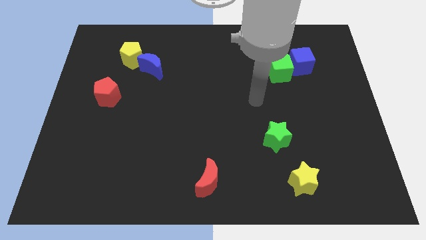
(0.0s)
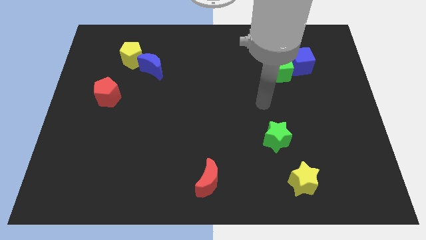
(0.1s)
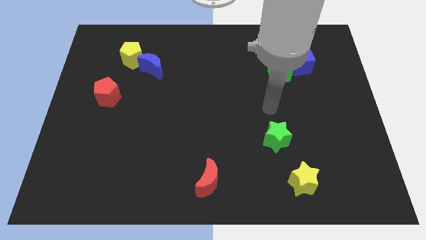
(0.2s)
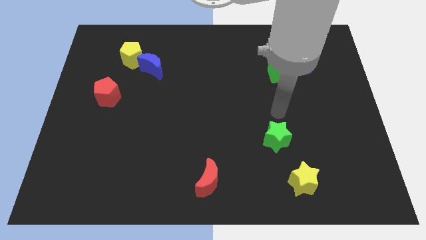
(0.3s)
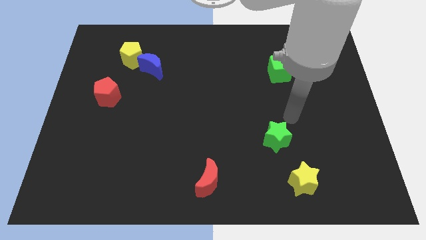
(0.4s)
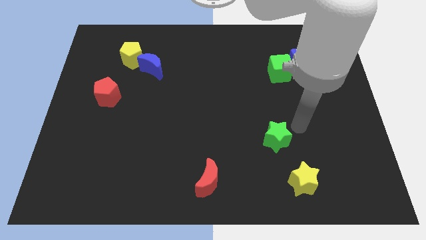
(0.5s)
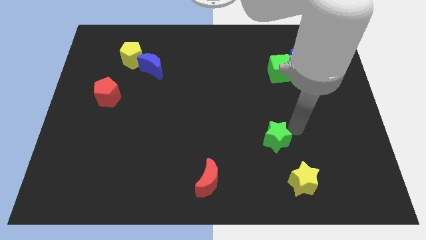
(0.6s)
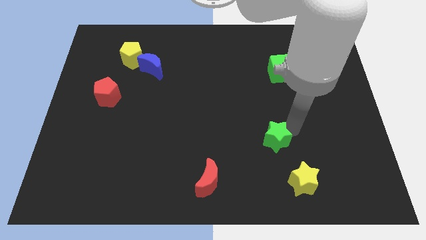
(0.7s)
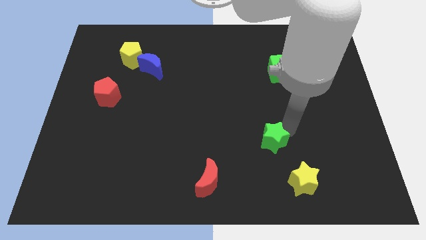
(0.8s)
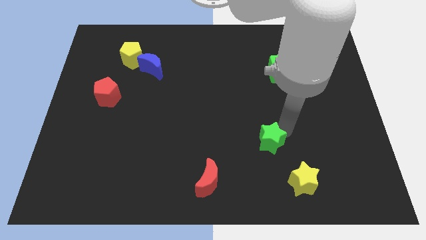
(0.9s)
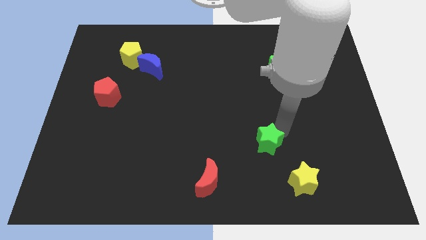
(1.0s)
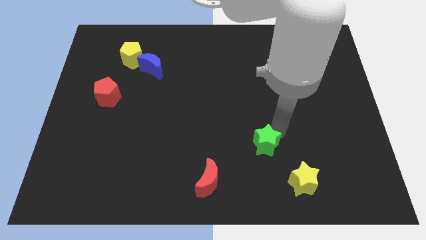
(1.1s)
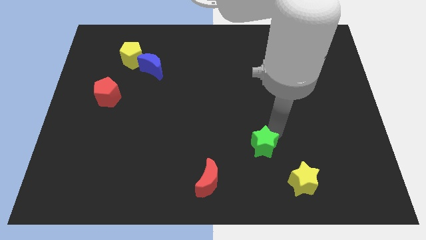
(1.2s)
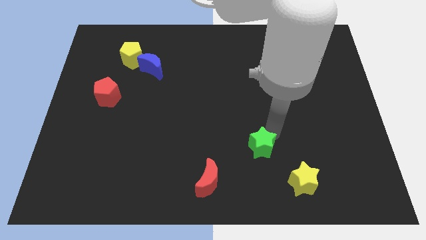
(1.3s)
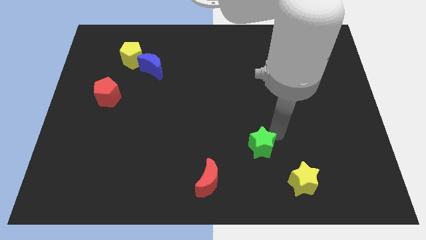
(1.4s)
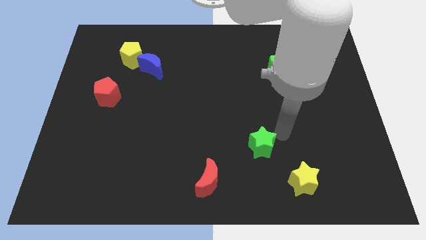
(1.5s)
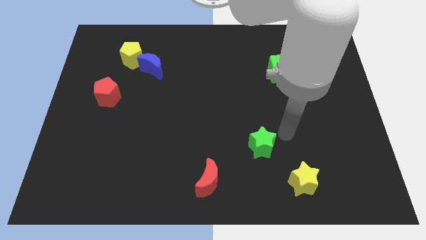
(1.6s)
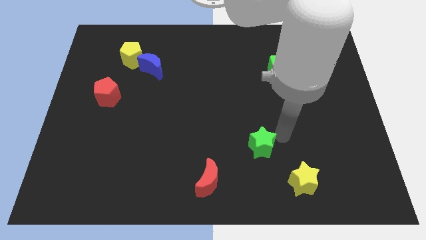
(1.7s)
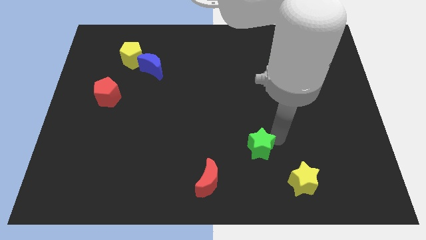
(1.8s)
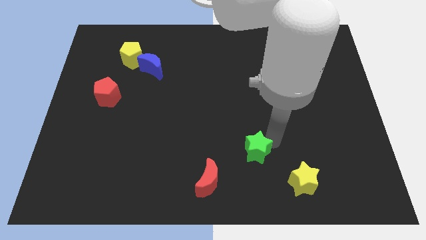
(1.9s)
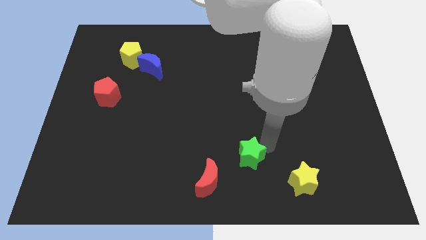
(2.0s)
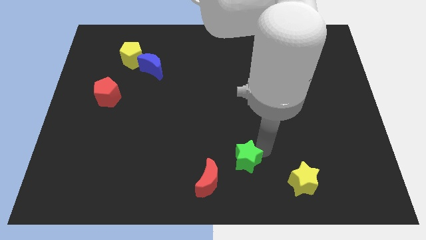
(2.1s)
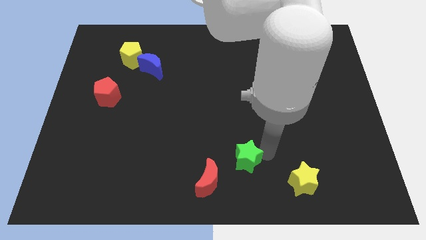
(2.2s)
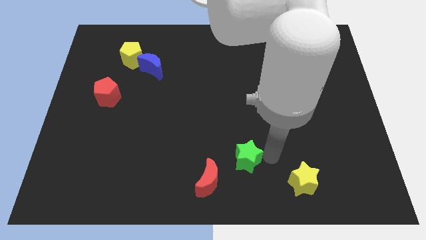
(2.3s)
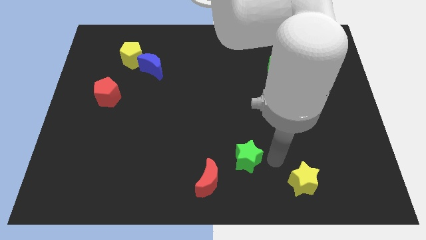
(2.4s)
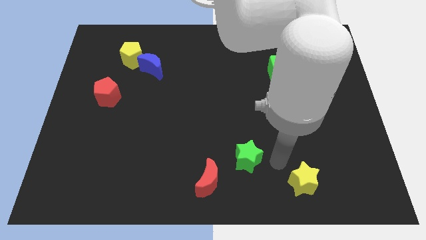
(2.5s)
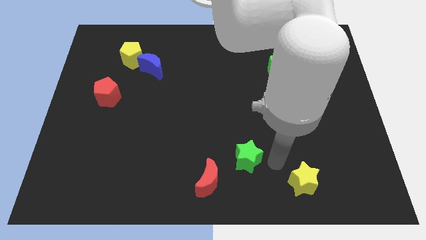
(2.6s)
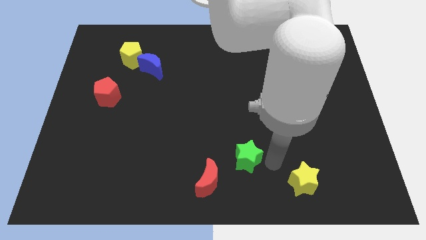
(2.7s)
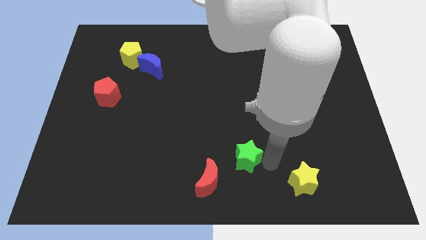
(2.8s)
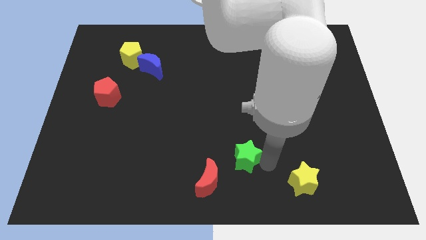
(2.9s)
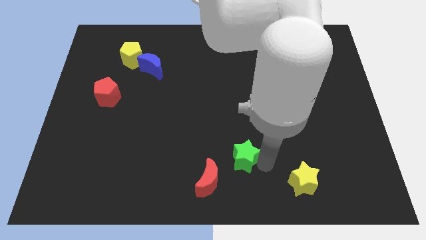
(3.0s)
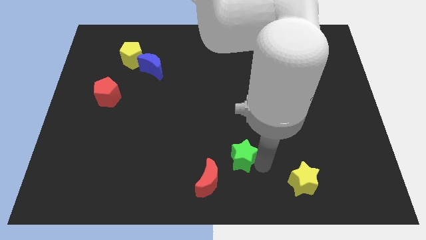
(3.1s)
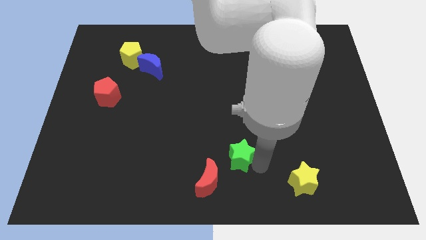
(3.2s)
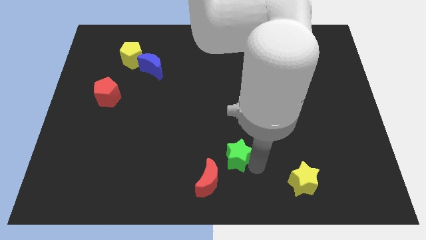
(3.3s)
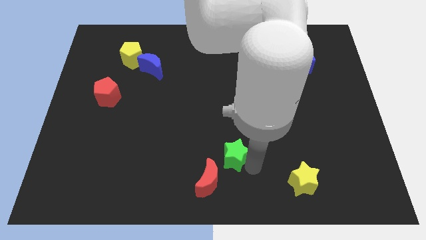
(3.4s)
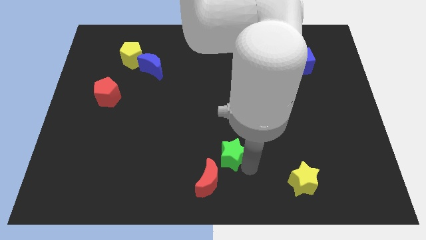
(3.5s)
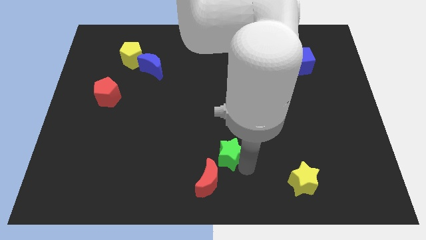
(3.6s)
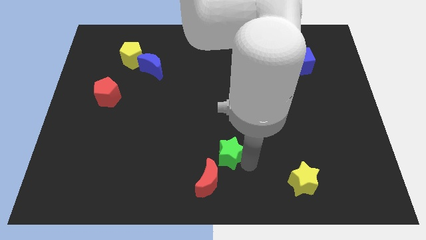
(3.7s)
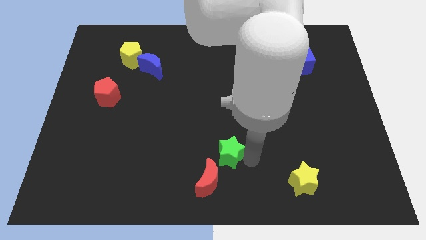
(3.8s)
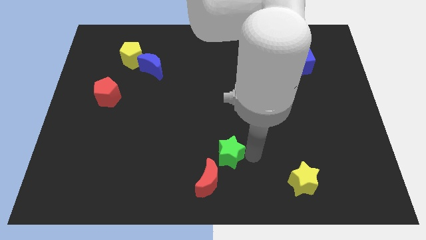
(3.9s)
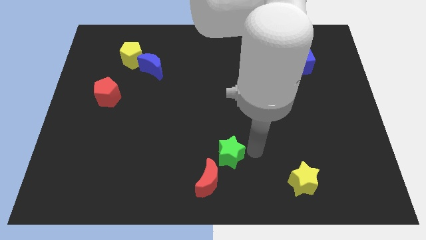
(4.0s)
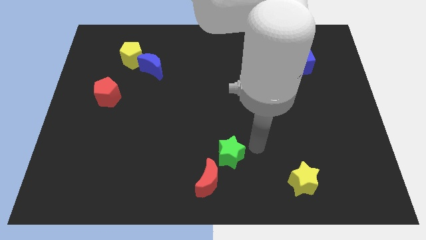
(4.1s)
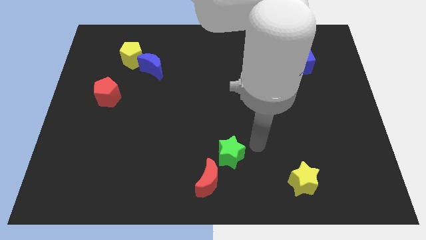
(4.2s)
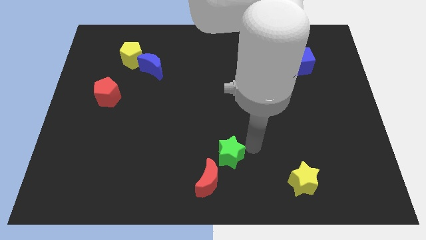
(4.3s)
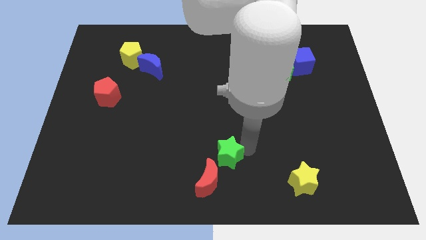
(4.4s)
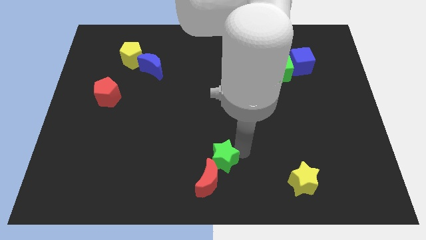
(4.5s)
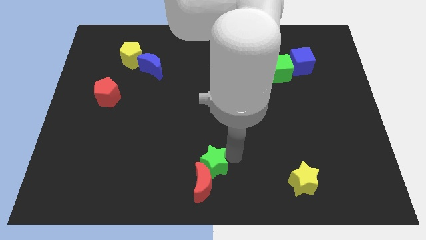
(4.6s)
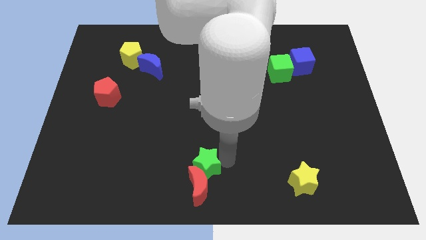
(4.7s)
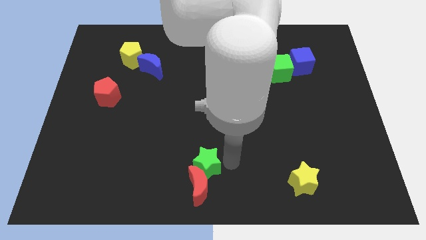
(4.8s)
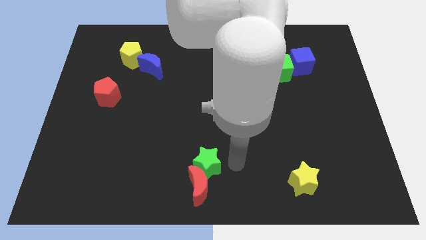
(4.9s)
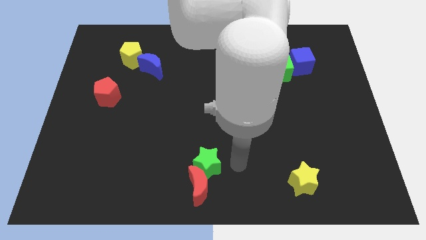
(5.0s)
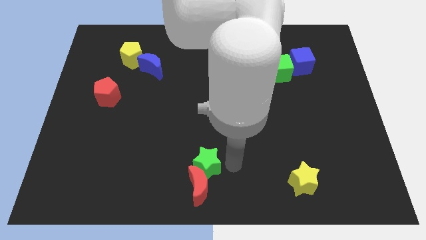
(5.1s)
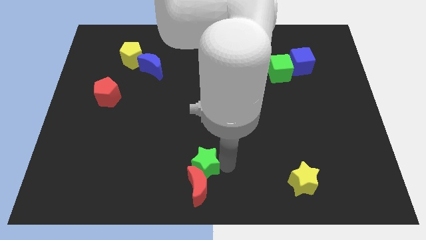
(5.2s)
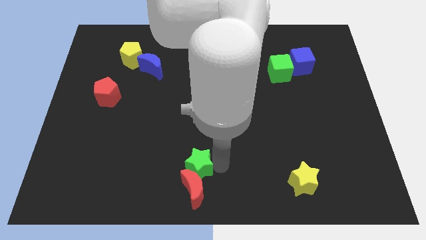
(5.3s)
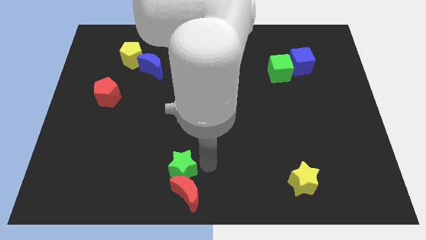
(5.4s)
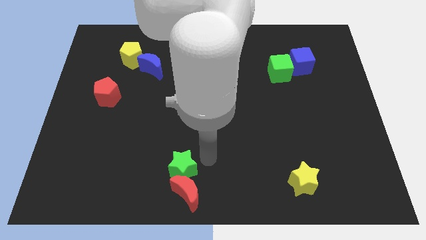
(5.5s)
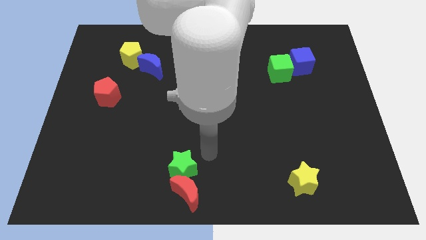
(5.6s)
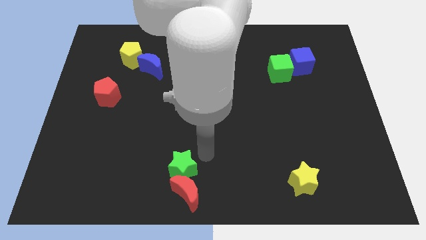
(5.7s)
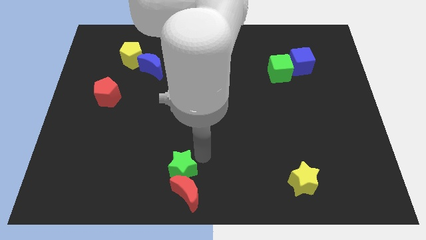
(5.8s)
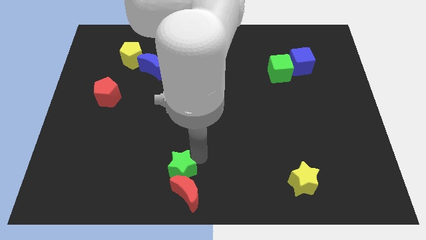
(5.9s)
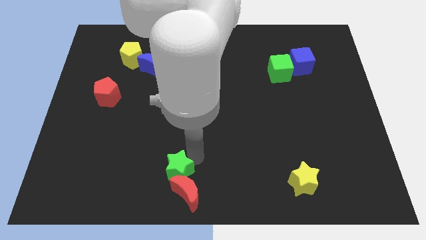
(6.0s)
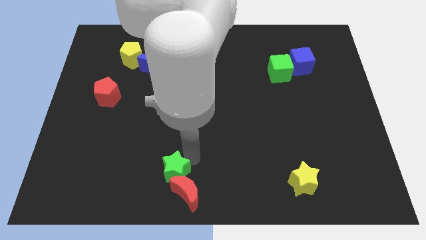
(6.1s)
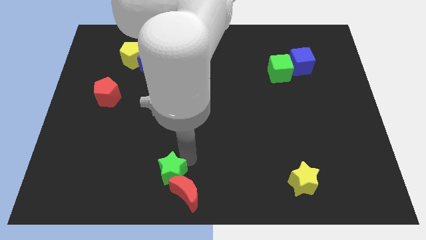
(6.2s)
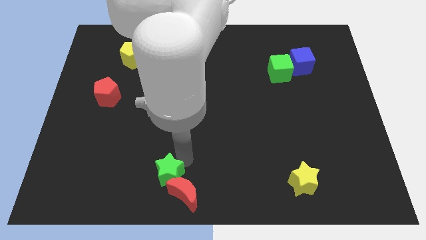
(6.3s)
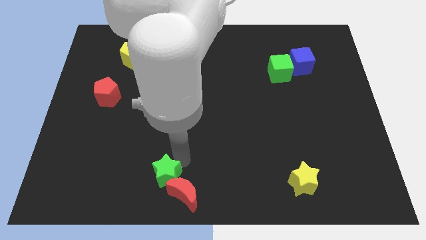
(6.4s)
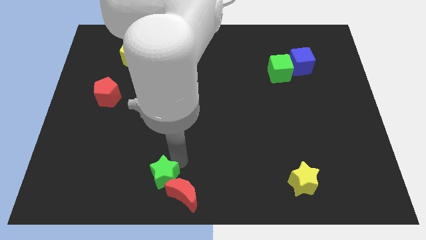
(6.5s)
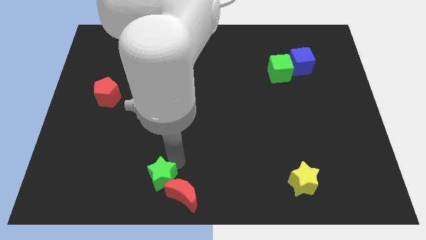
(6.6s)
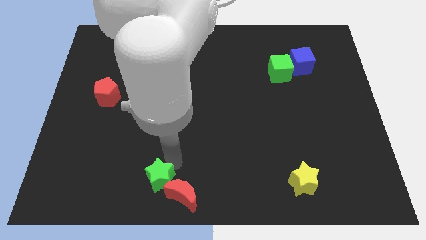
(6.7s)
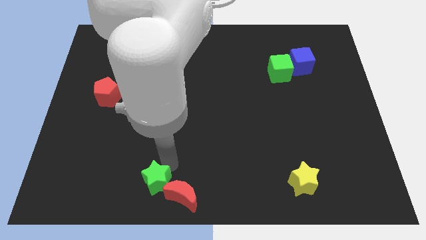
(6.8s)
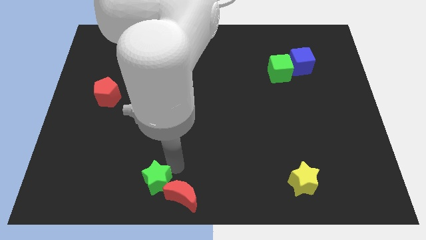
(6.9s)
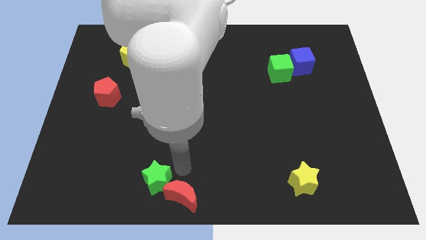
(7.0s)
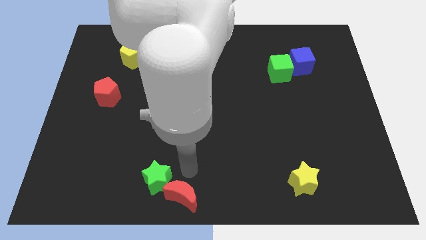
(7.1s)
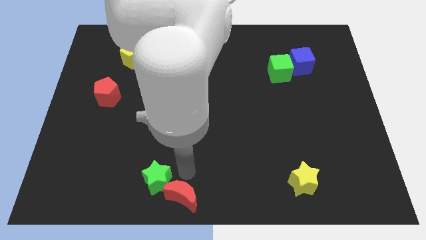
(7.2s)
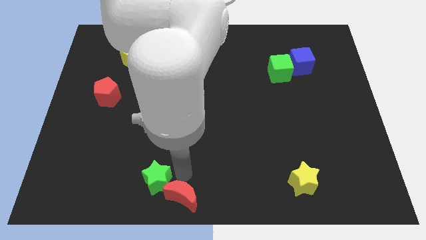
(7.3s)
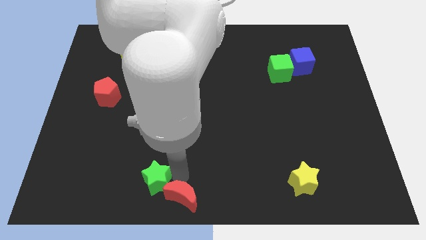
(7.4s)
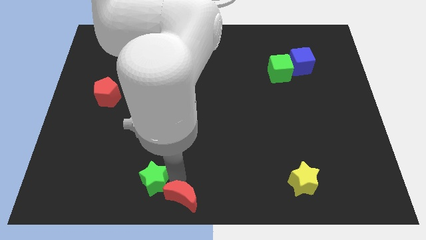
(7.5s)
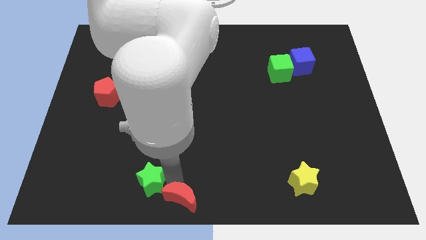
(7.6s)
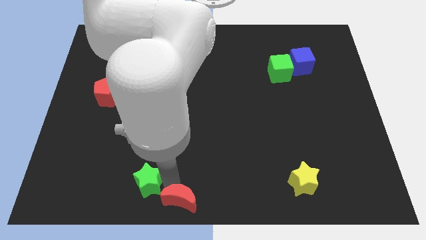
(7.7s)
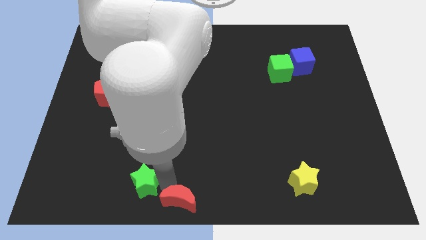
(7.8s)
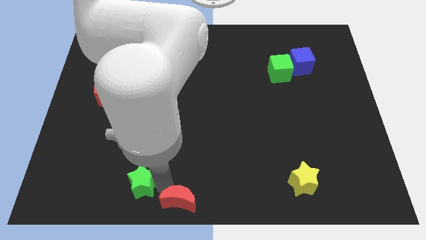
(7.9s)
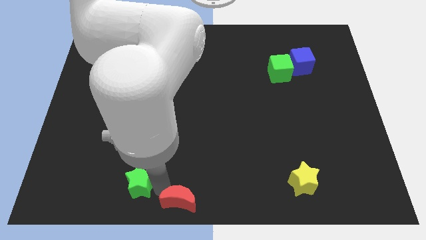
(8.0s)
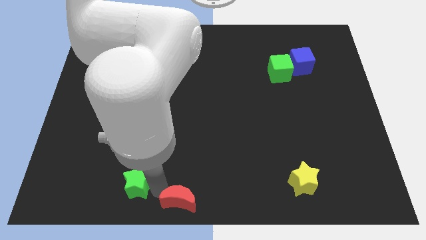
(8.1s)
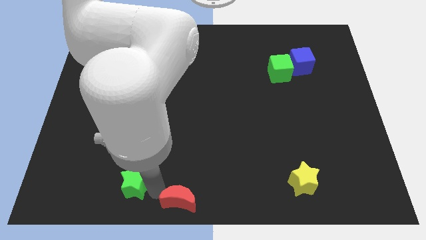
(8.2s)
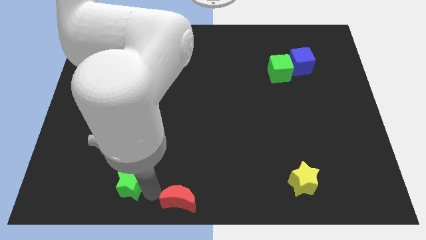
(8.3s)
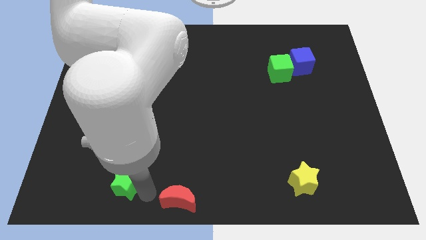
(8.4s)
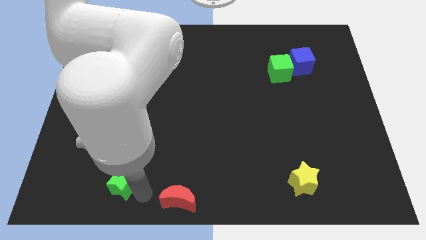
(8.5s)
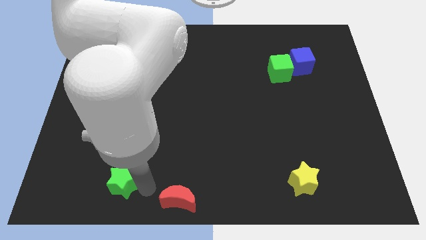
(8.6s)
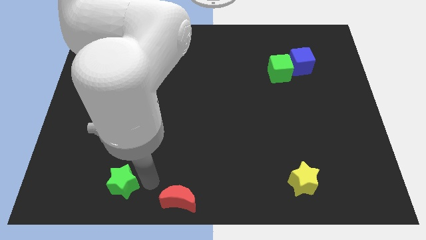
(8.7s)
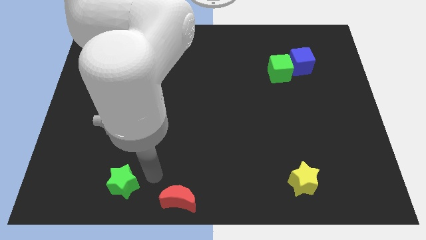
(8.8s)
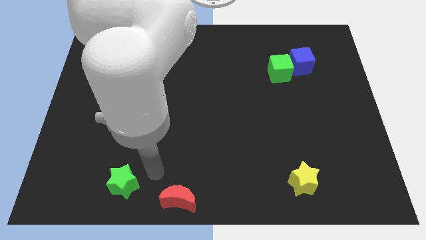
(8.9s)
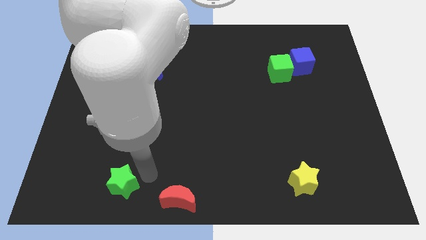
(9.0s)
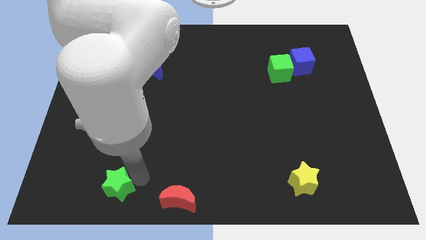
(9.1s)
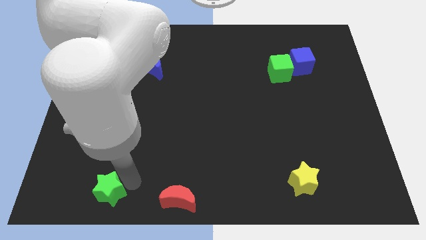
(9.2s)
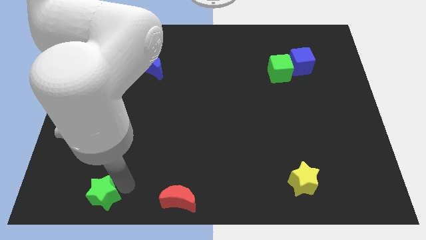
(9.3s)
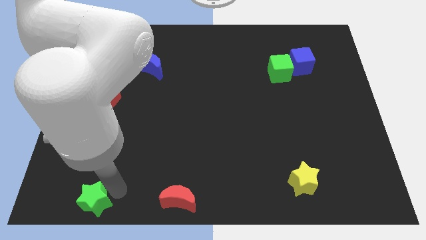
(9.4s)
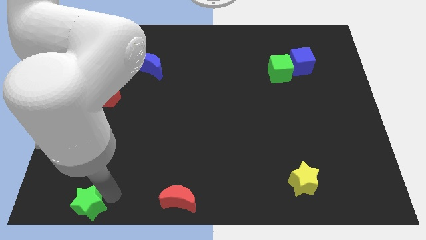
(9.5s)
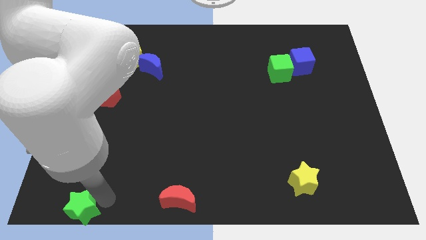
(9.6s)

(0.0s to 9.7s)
move the green star to the bottom left of the board
